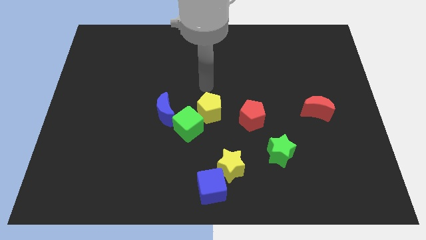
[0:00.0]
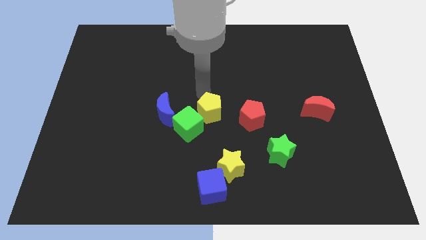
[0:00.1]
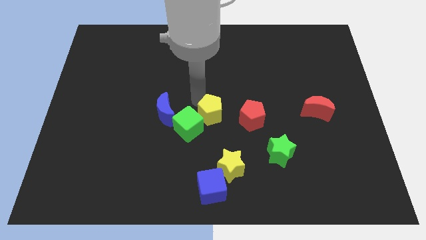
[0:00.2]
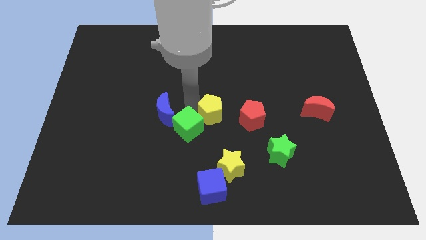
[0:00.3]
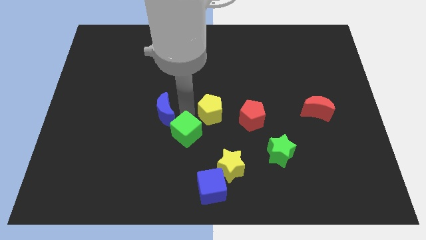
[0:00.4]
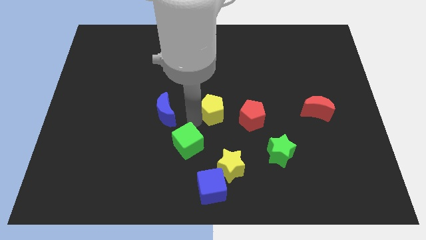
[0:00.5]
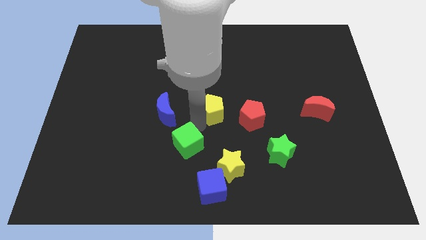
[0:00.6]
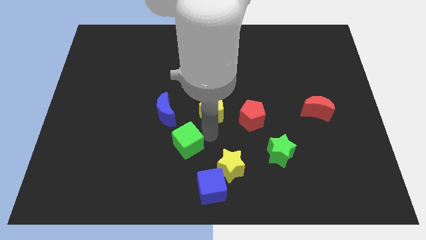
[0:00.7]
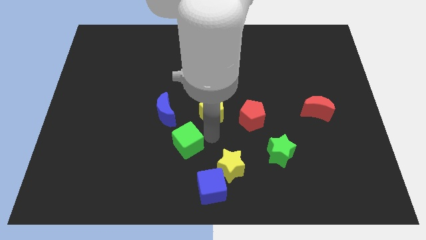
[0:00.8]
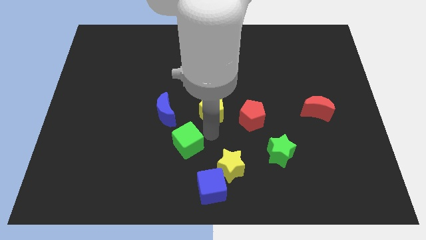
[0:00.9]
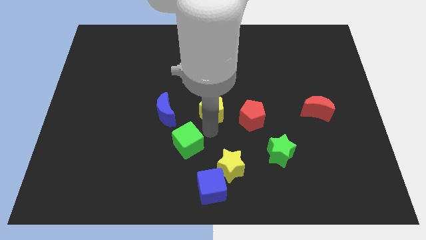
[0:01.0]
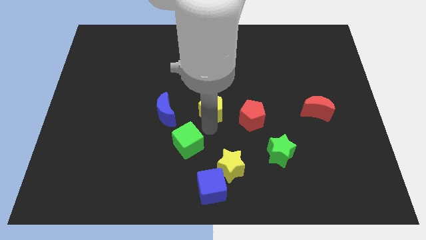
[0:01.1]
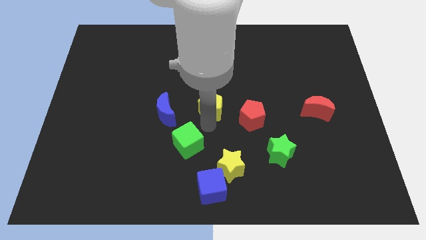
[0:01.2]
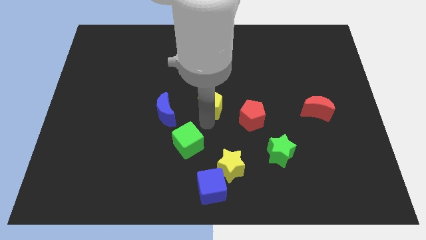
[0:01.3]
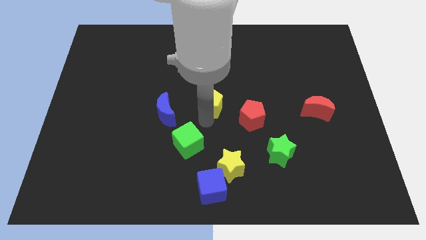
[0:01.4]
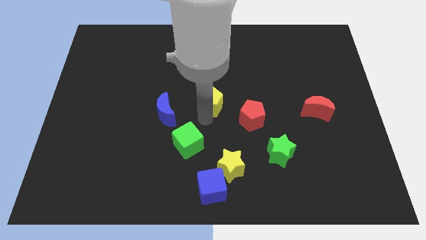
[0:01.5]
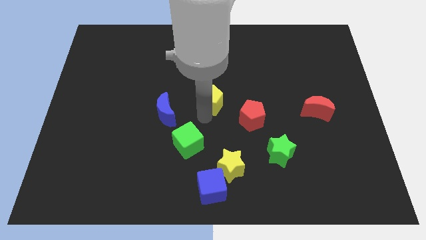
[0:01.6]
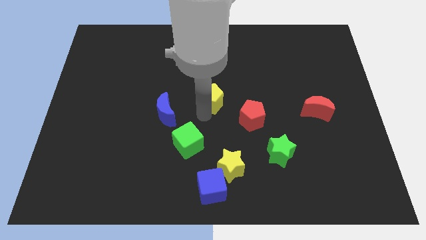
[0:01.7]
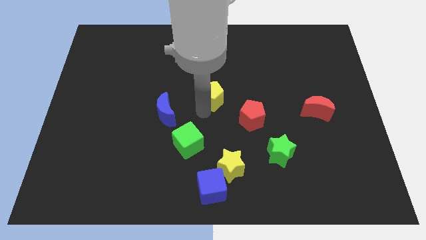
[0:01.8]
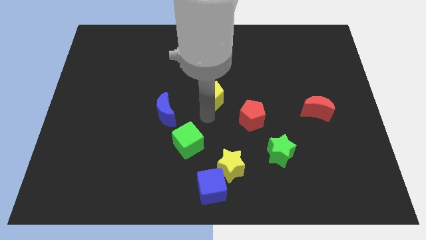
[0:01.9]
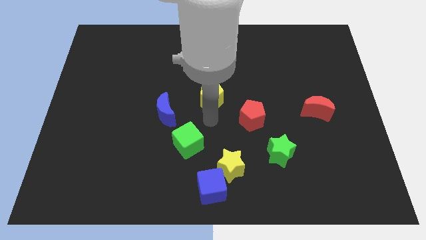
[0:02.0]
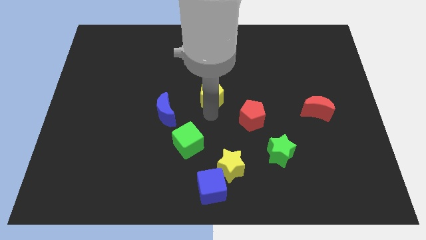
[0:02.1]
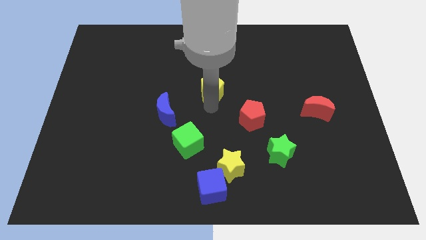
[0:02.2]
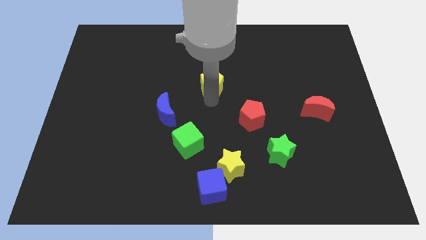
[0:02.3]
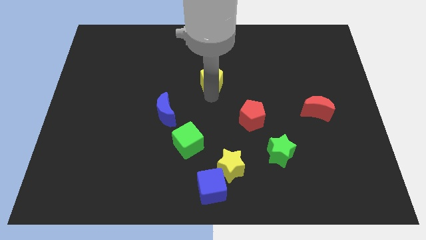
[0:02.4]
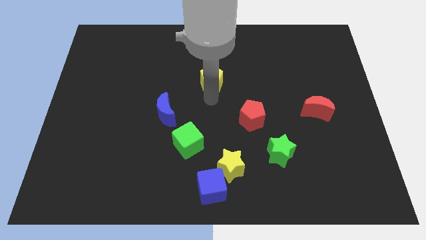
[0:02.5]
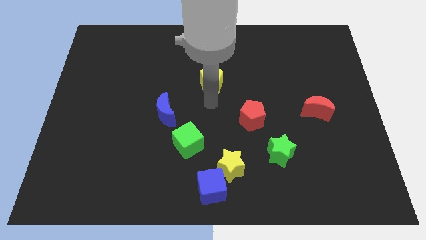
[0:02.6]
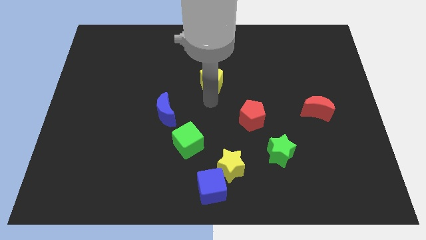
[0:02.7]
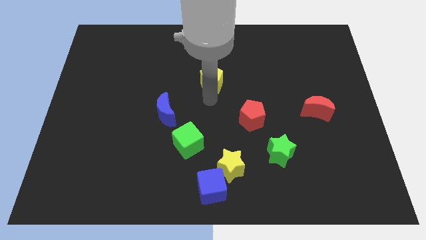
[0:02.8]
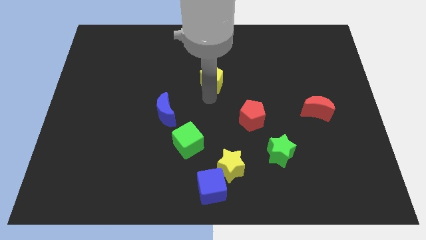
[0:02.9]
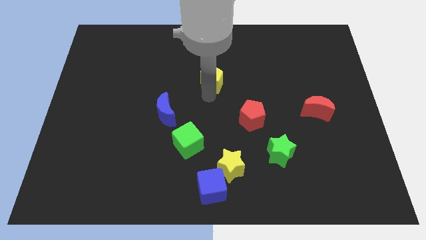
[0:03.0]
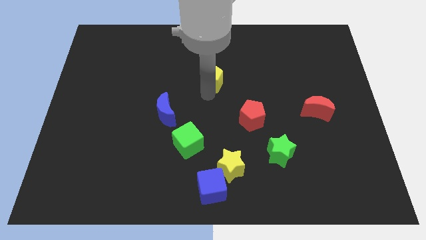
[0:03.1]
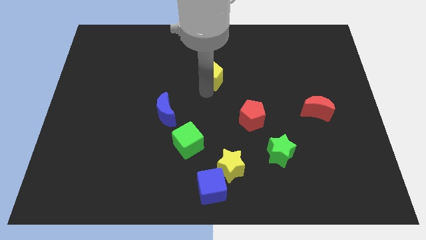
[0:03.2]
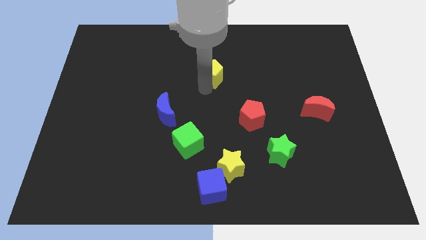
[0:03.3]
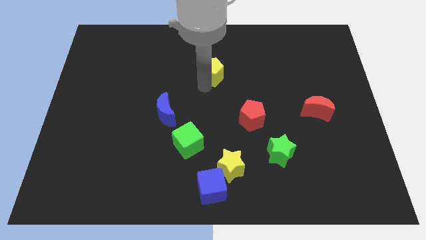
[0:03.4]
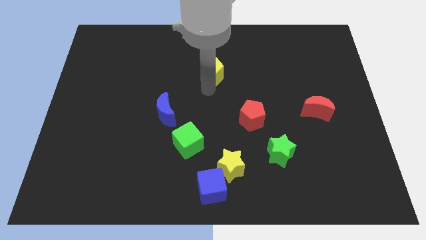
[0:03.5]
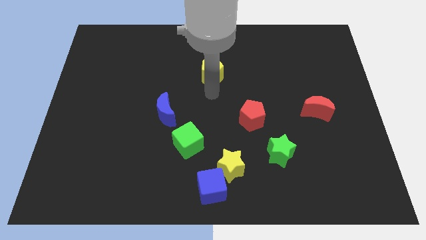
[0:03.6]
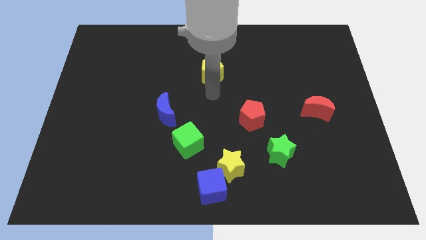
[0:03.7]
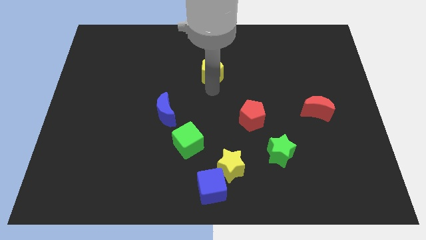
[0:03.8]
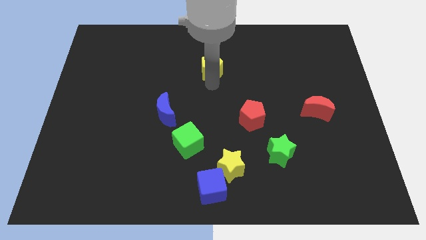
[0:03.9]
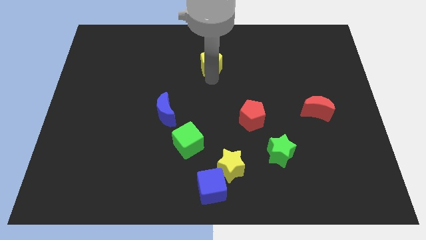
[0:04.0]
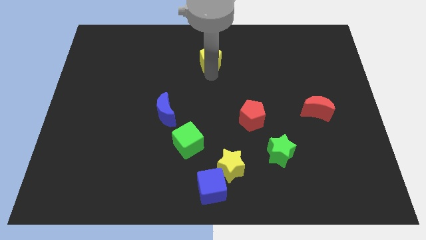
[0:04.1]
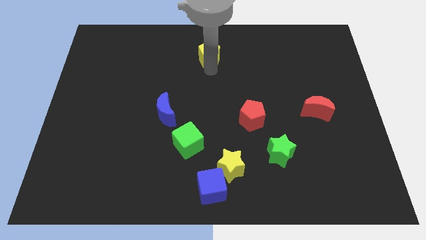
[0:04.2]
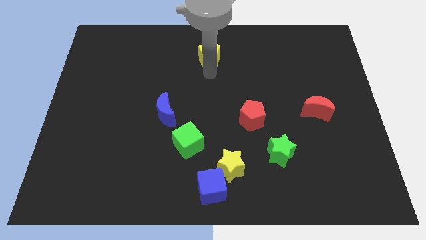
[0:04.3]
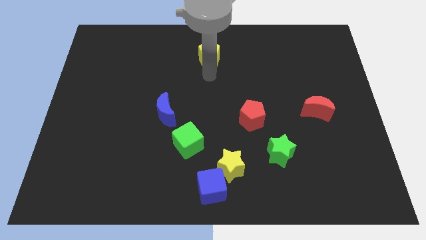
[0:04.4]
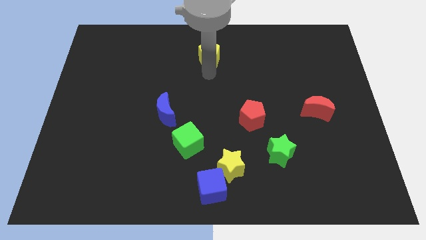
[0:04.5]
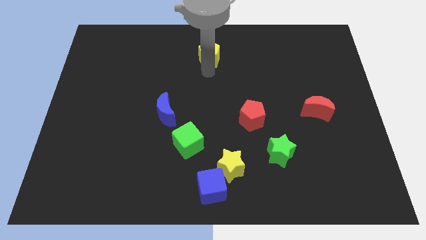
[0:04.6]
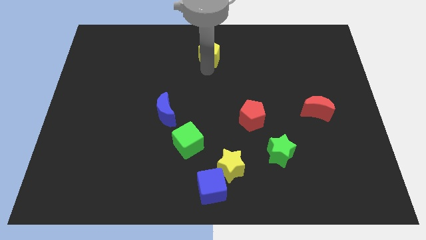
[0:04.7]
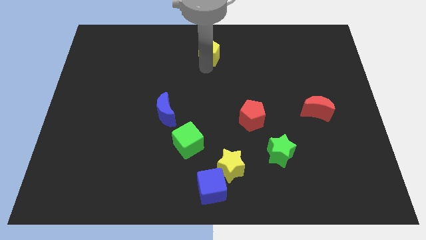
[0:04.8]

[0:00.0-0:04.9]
slide the yellow pentagon to the top side

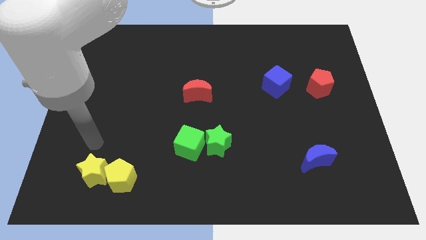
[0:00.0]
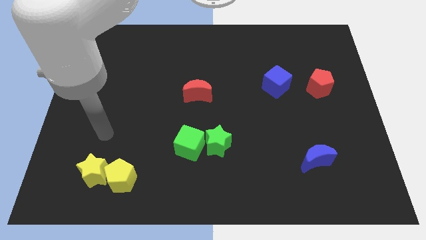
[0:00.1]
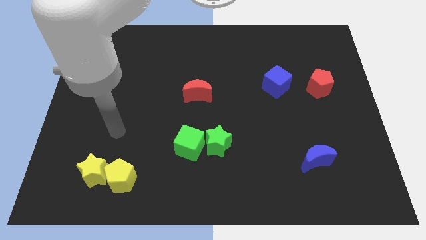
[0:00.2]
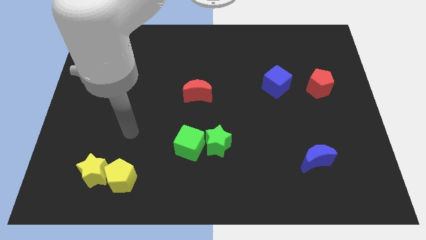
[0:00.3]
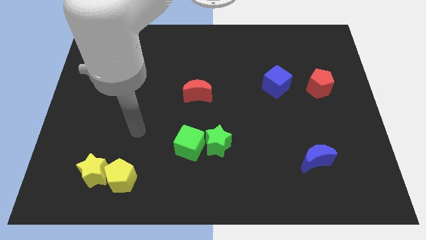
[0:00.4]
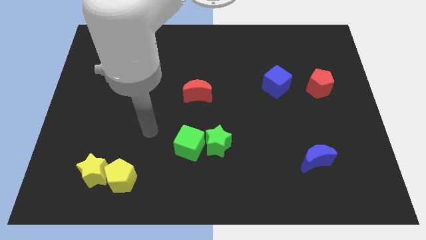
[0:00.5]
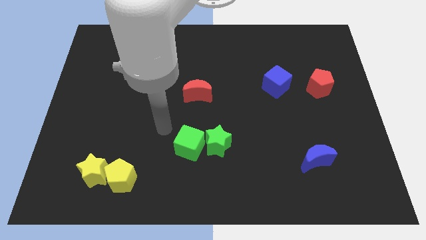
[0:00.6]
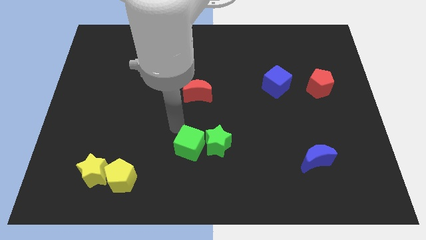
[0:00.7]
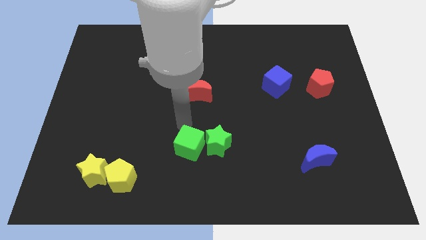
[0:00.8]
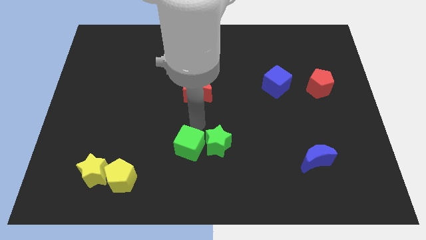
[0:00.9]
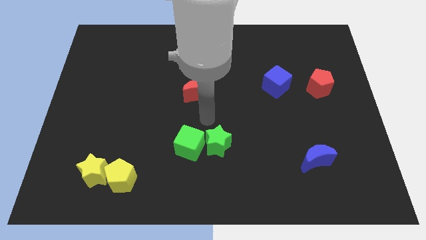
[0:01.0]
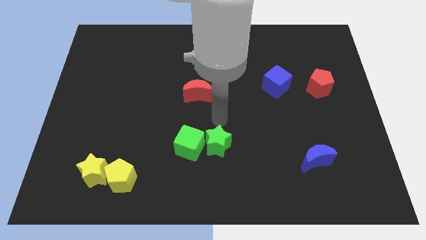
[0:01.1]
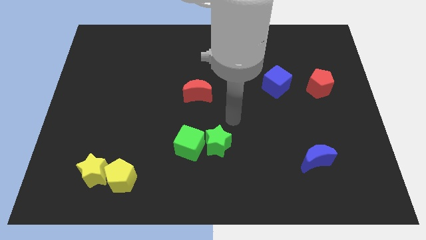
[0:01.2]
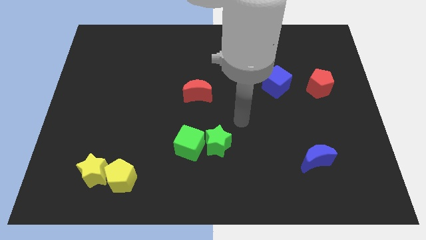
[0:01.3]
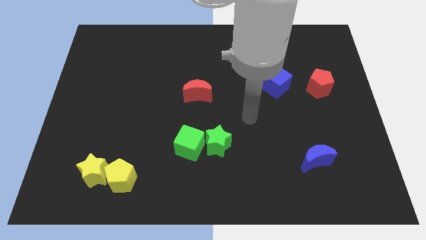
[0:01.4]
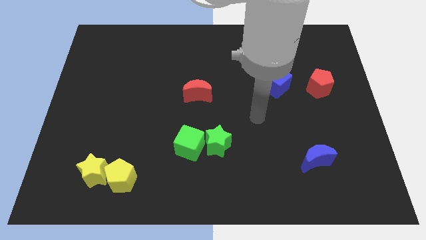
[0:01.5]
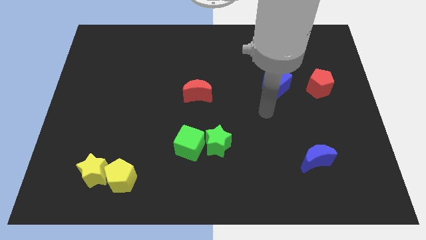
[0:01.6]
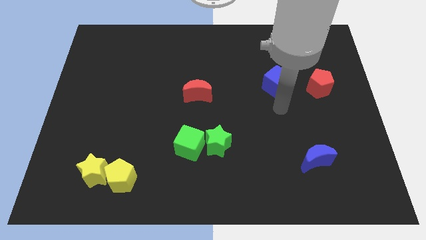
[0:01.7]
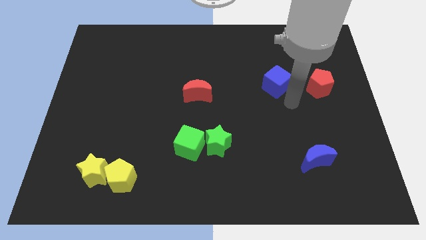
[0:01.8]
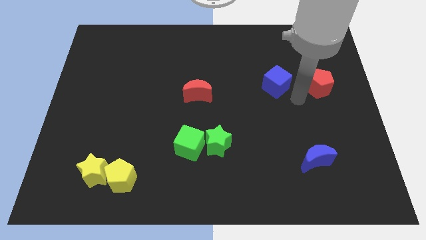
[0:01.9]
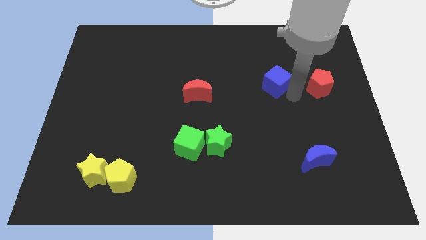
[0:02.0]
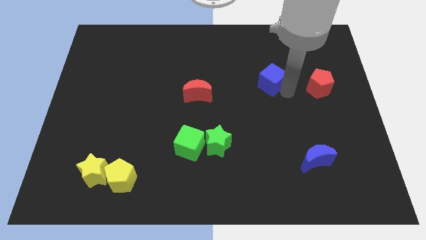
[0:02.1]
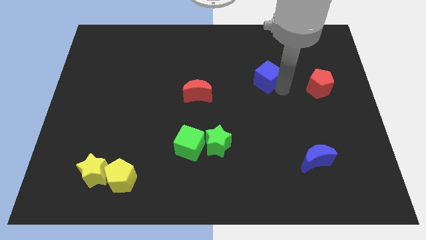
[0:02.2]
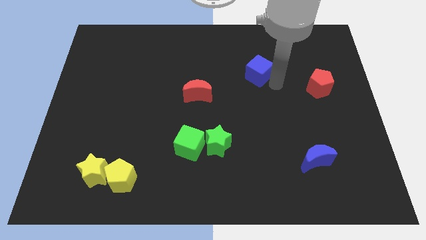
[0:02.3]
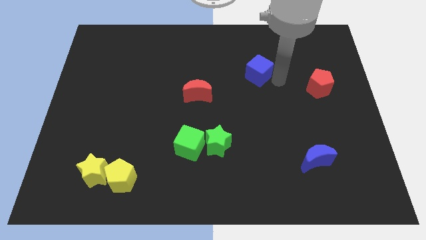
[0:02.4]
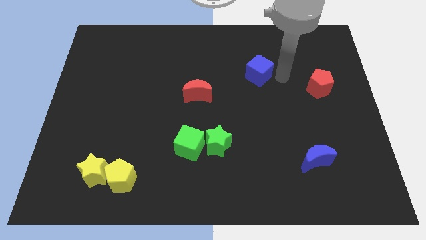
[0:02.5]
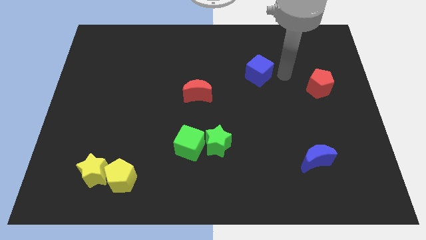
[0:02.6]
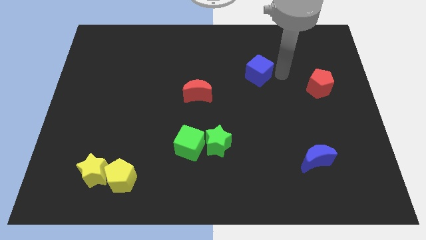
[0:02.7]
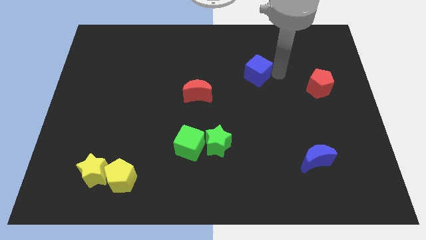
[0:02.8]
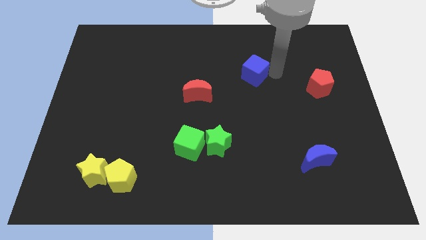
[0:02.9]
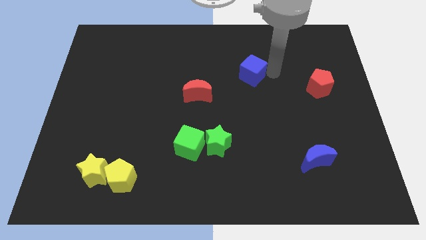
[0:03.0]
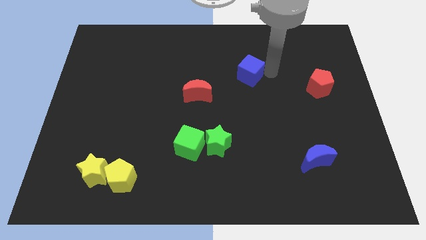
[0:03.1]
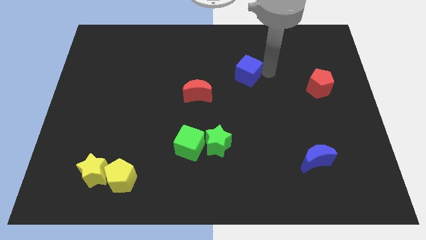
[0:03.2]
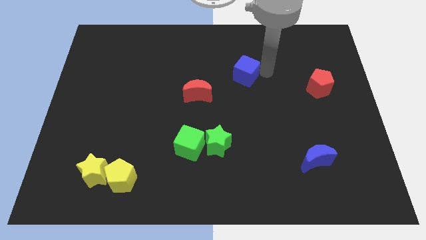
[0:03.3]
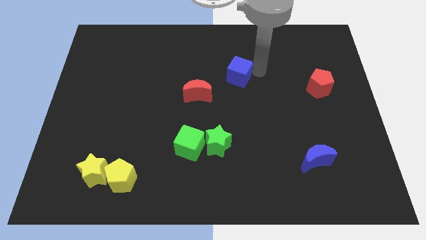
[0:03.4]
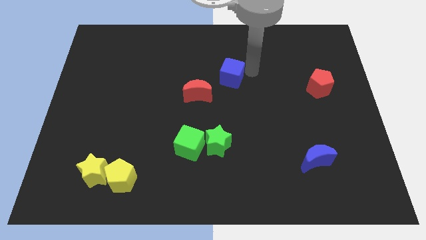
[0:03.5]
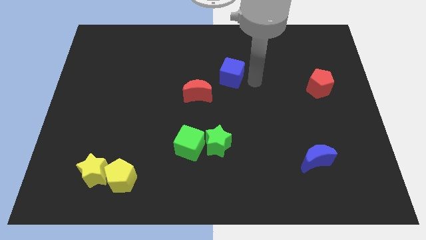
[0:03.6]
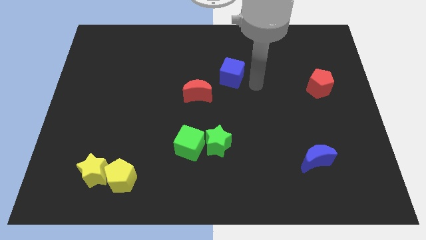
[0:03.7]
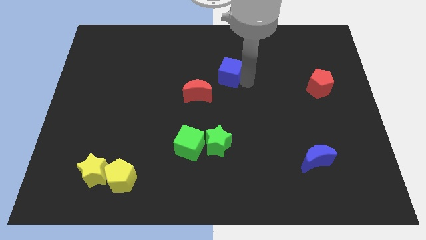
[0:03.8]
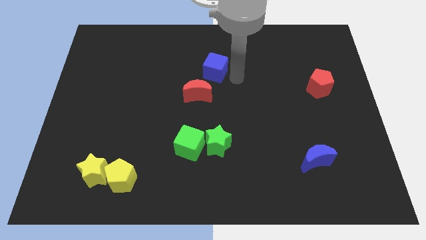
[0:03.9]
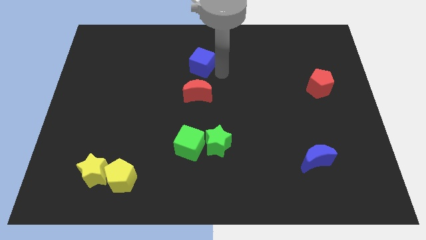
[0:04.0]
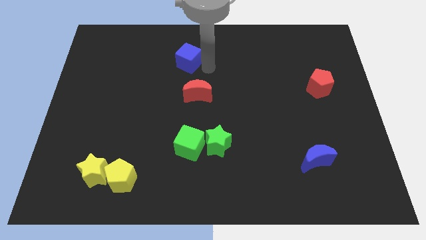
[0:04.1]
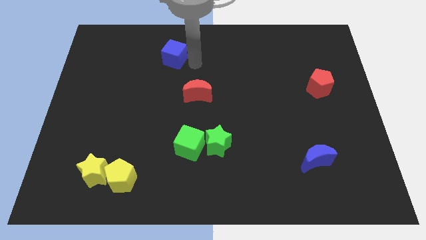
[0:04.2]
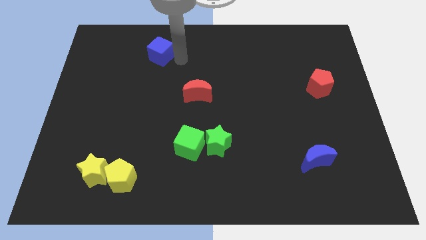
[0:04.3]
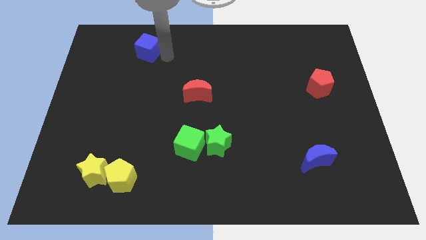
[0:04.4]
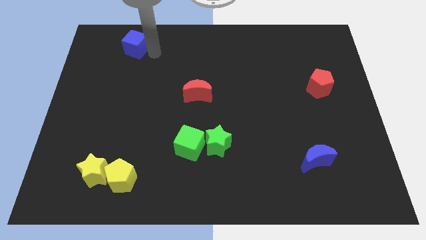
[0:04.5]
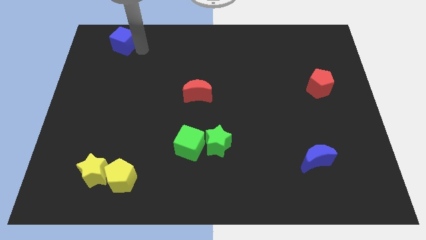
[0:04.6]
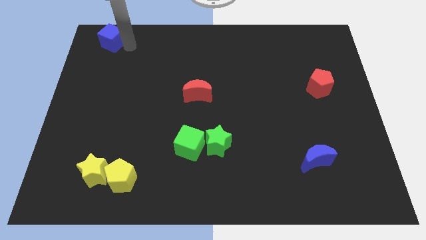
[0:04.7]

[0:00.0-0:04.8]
move the blue cube to the top left of the board
